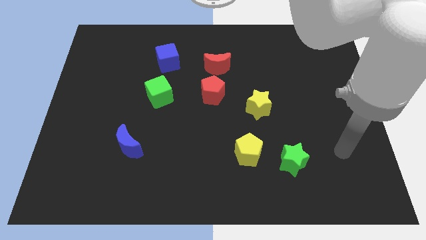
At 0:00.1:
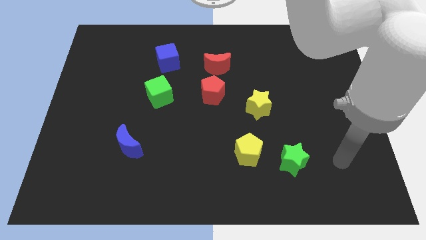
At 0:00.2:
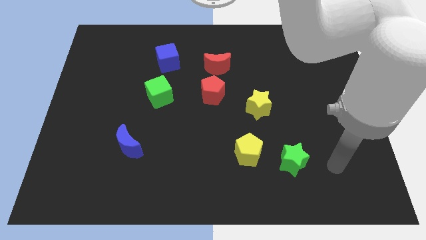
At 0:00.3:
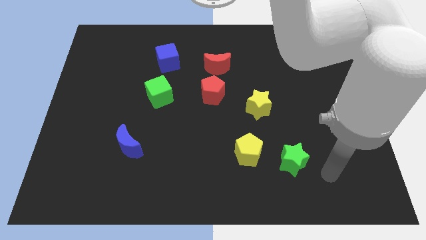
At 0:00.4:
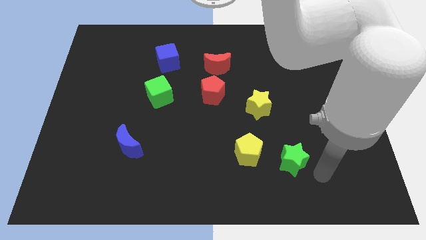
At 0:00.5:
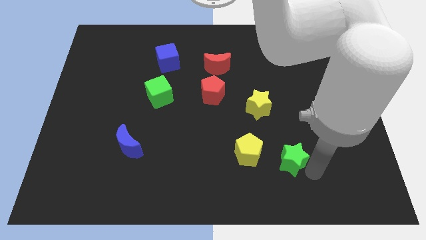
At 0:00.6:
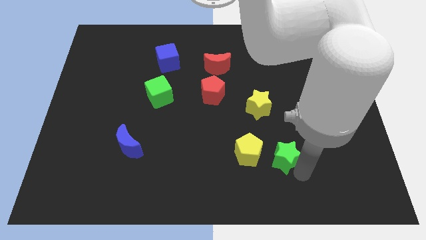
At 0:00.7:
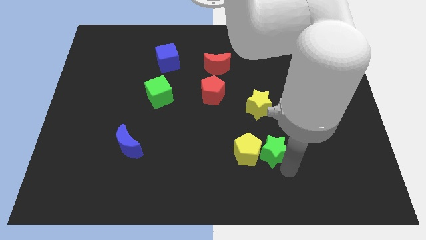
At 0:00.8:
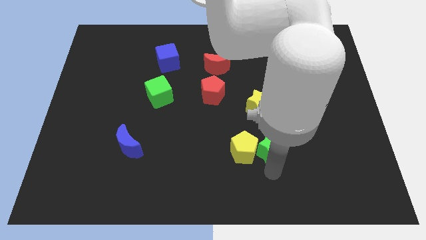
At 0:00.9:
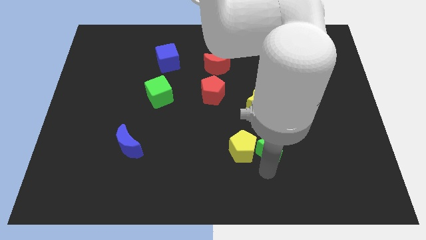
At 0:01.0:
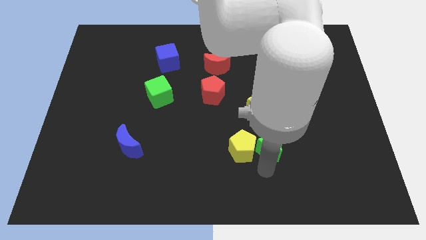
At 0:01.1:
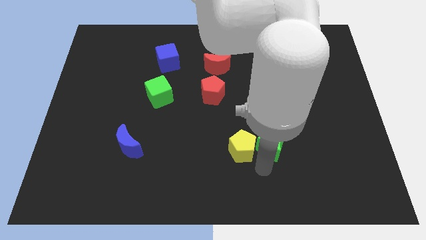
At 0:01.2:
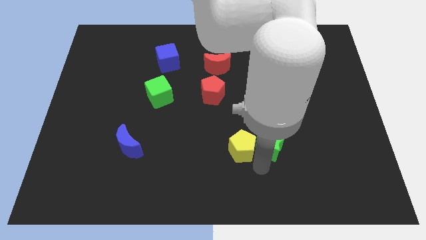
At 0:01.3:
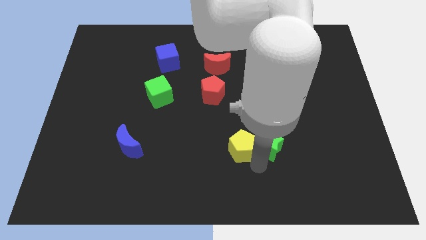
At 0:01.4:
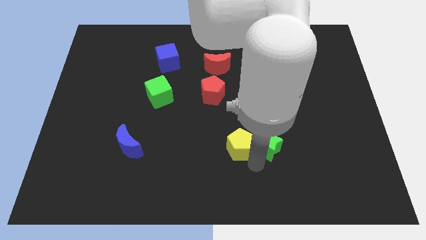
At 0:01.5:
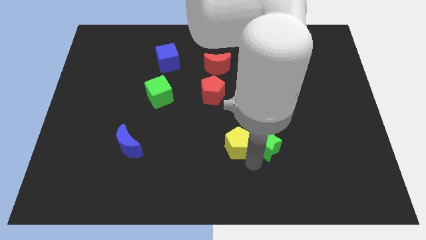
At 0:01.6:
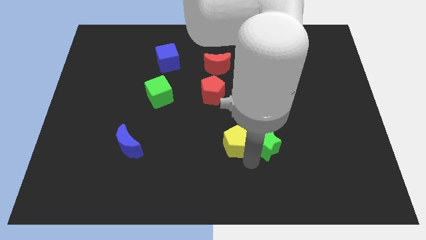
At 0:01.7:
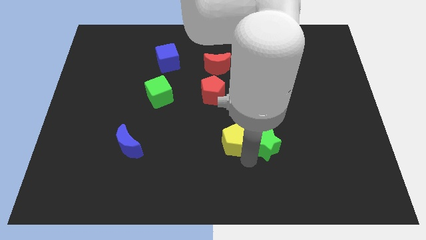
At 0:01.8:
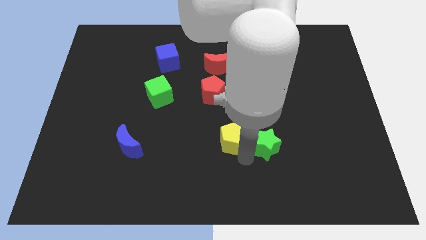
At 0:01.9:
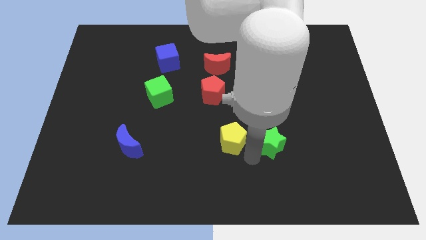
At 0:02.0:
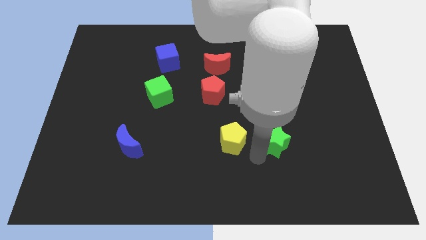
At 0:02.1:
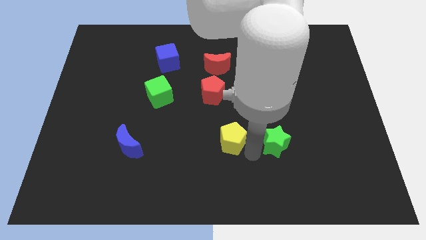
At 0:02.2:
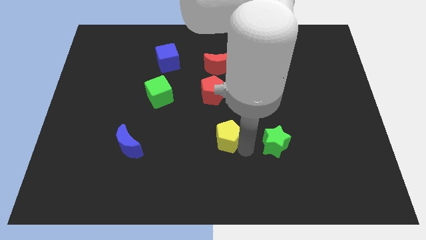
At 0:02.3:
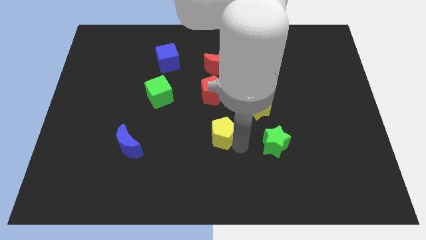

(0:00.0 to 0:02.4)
slightly slide the yellow pentagon diagonally up and left

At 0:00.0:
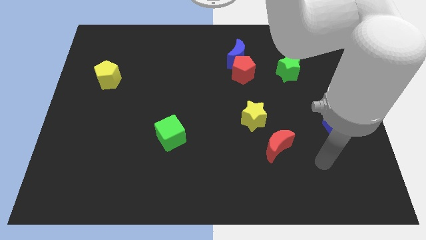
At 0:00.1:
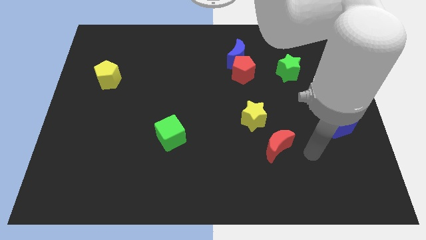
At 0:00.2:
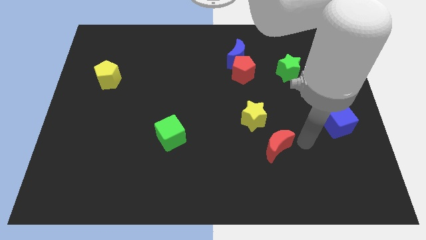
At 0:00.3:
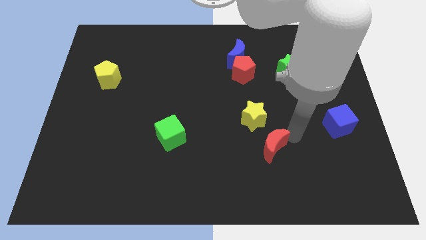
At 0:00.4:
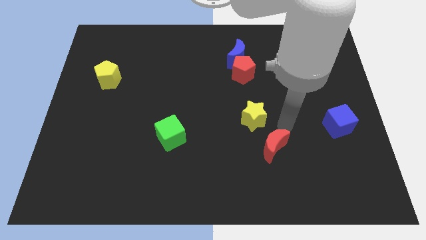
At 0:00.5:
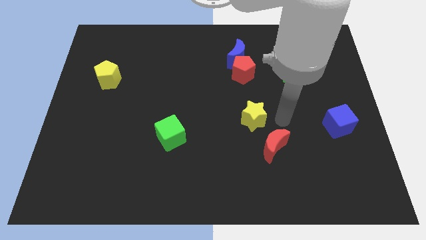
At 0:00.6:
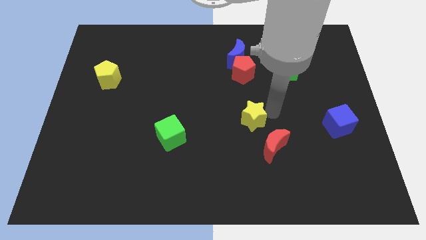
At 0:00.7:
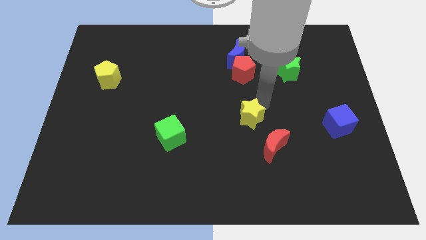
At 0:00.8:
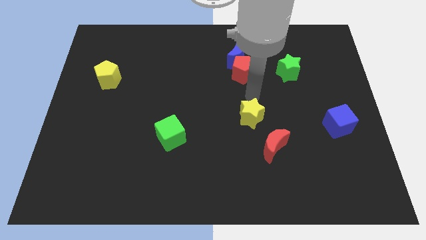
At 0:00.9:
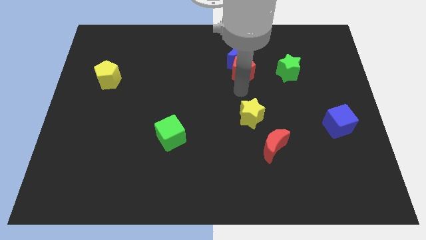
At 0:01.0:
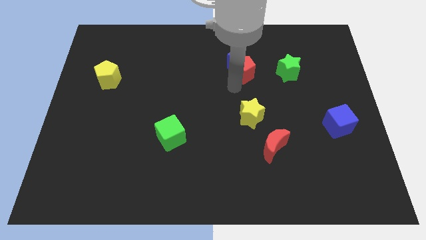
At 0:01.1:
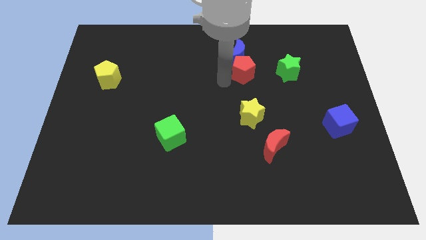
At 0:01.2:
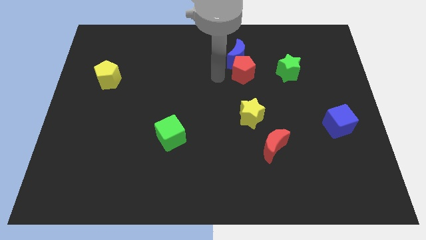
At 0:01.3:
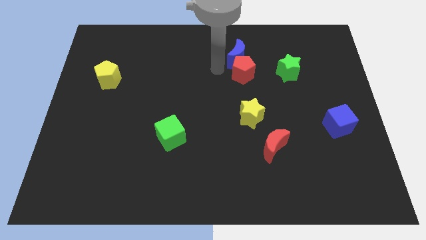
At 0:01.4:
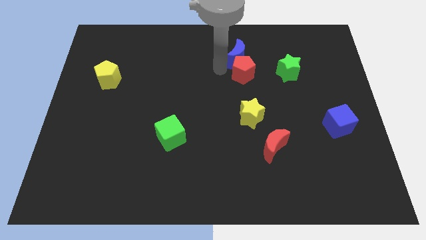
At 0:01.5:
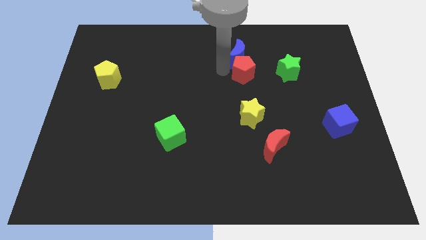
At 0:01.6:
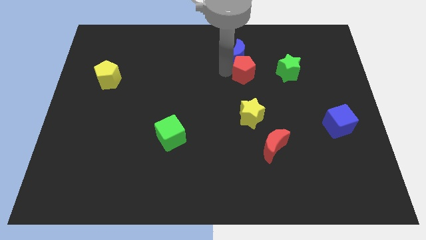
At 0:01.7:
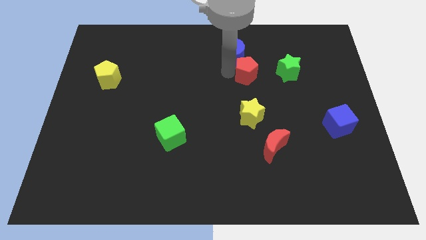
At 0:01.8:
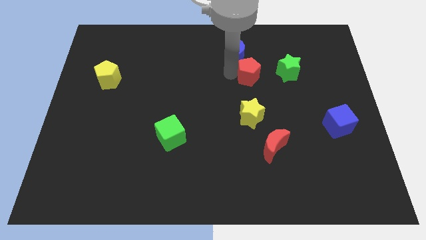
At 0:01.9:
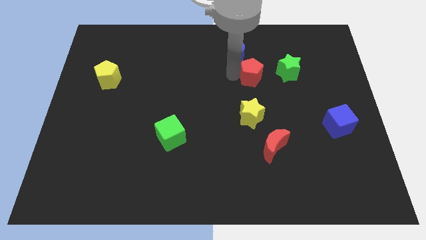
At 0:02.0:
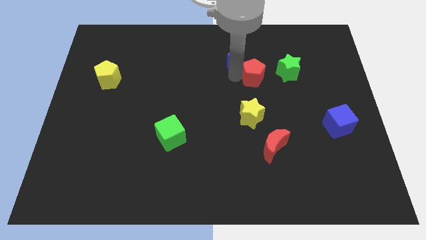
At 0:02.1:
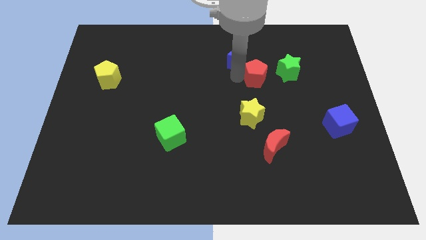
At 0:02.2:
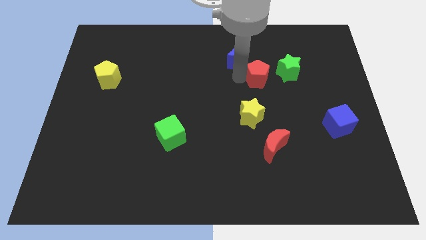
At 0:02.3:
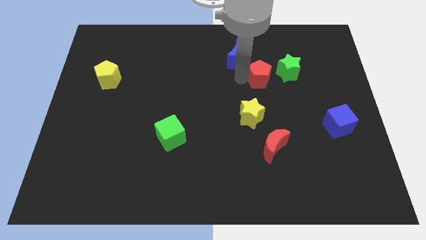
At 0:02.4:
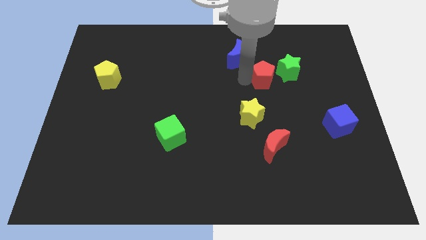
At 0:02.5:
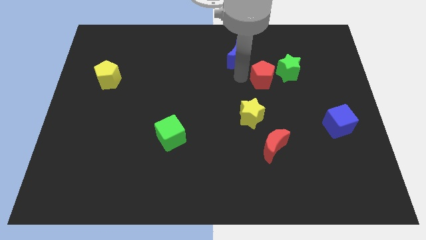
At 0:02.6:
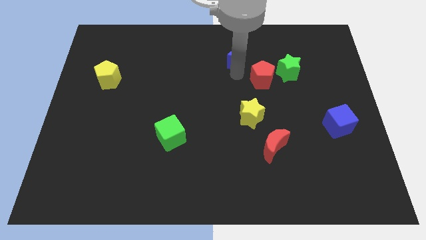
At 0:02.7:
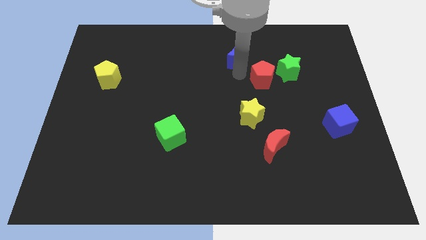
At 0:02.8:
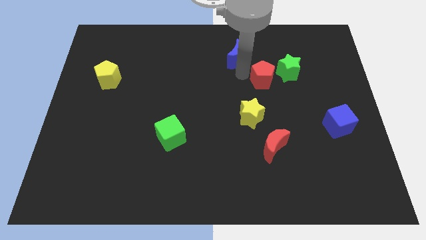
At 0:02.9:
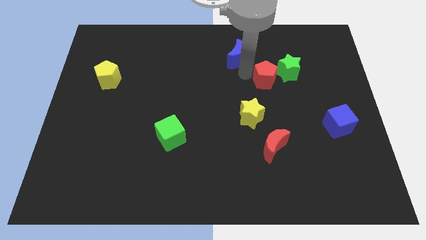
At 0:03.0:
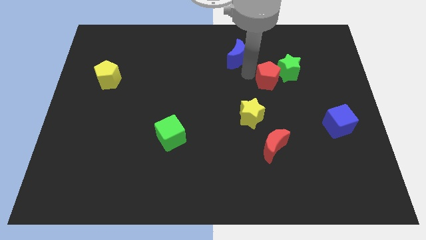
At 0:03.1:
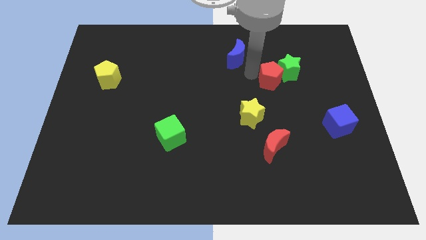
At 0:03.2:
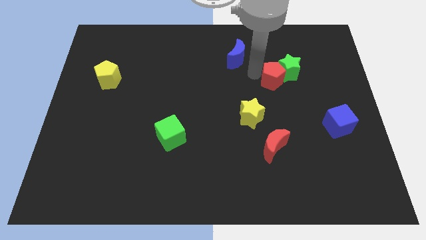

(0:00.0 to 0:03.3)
push the red pentagon to the right a little

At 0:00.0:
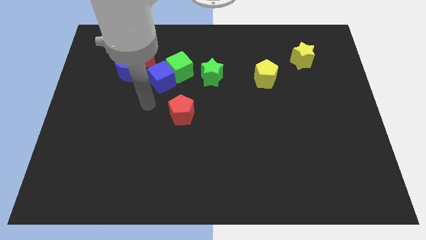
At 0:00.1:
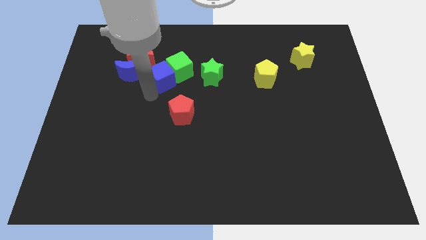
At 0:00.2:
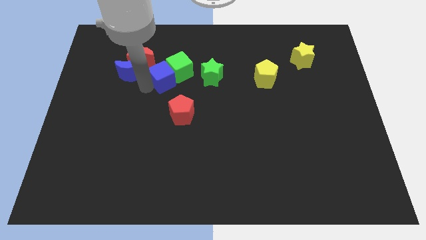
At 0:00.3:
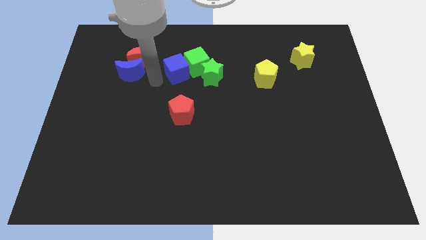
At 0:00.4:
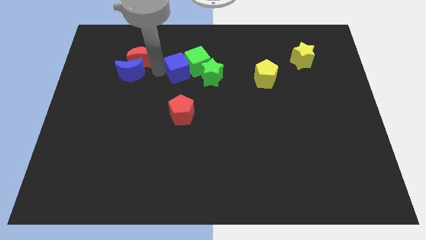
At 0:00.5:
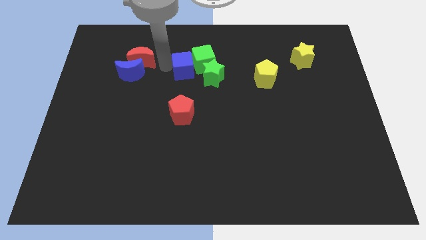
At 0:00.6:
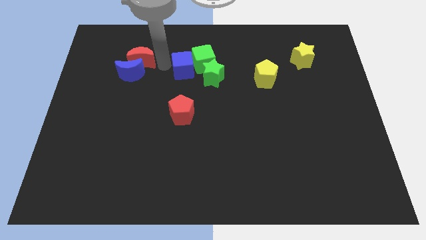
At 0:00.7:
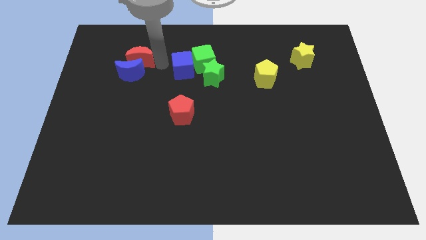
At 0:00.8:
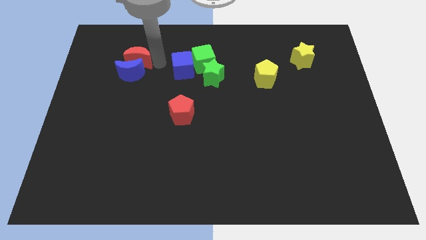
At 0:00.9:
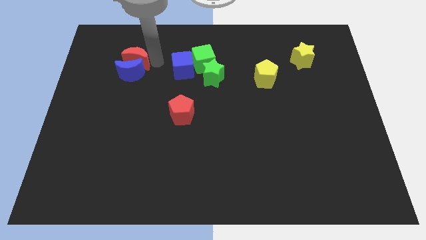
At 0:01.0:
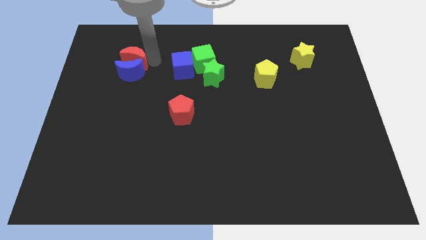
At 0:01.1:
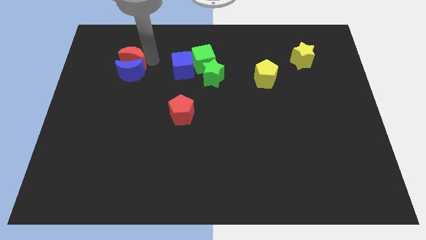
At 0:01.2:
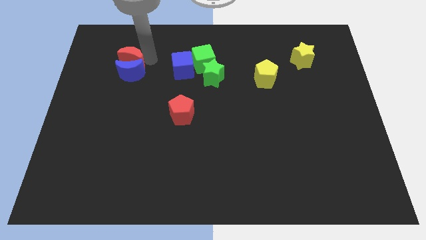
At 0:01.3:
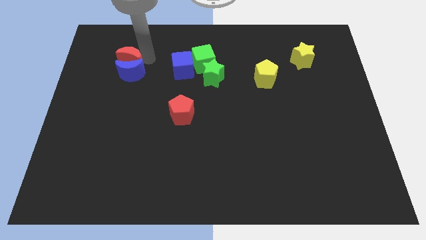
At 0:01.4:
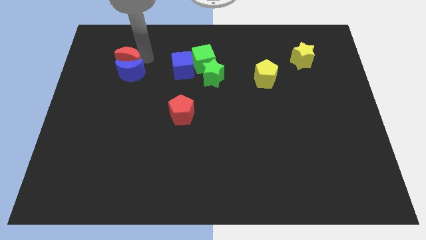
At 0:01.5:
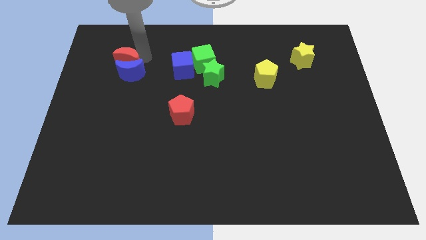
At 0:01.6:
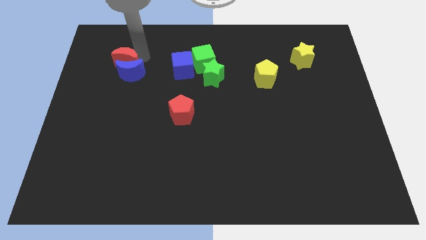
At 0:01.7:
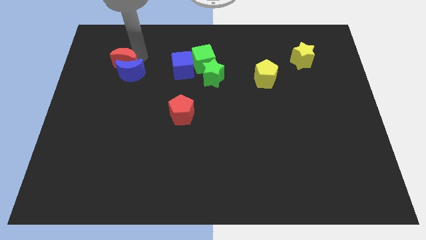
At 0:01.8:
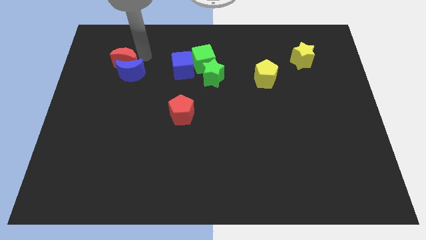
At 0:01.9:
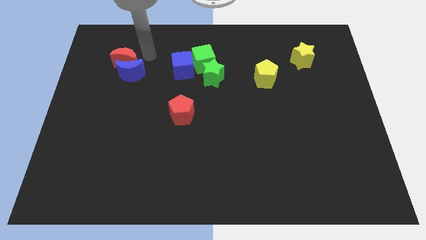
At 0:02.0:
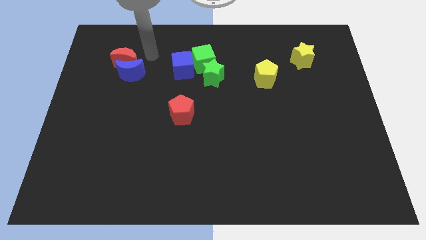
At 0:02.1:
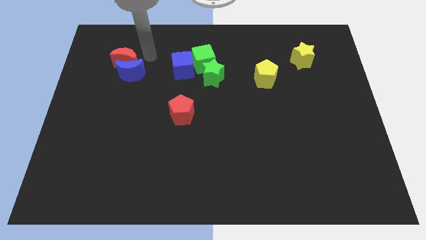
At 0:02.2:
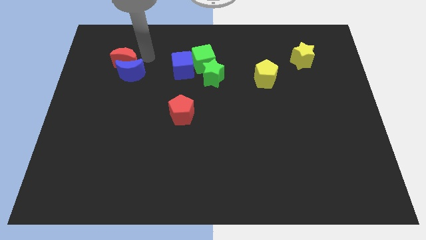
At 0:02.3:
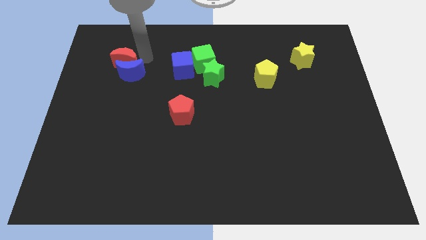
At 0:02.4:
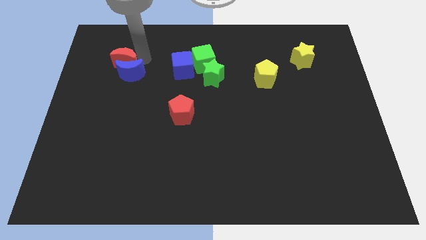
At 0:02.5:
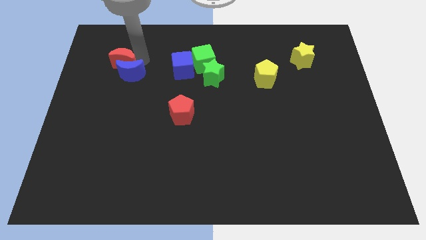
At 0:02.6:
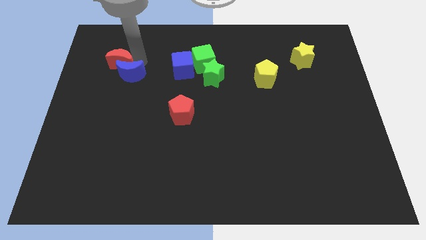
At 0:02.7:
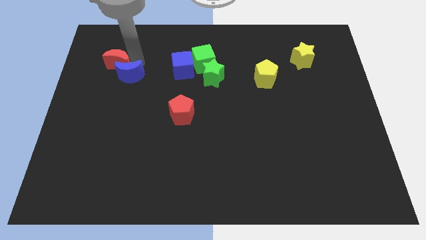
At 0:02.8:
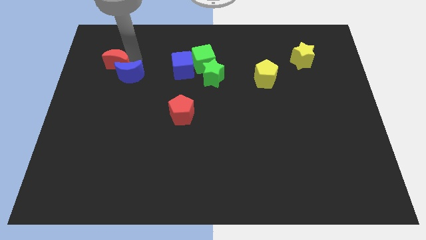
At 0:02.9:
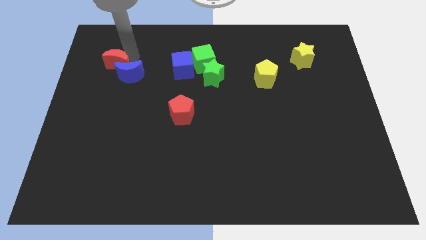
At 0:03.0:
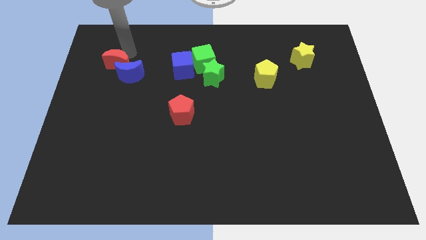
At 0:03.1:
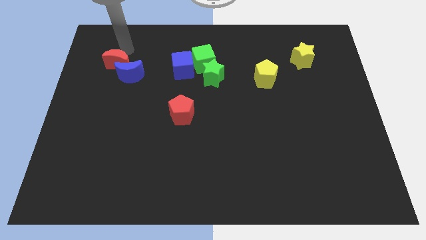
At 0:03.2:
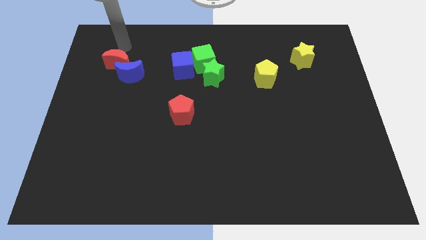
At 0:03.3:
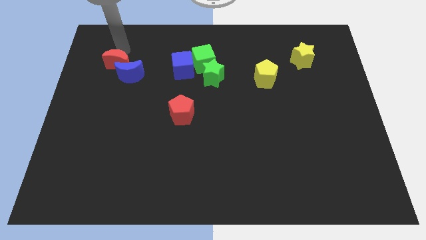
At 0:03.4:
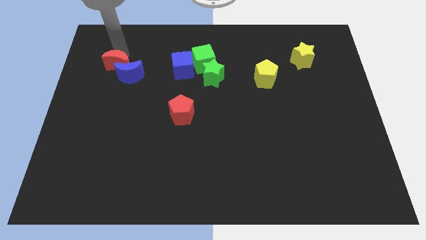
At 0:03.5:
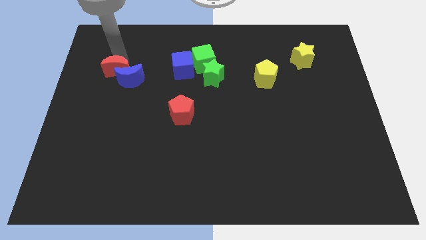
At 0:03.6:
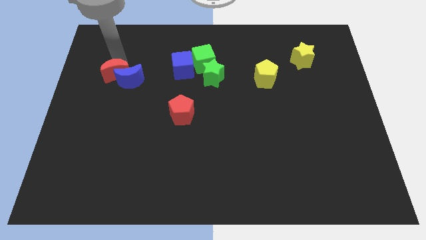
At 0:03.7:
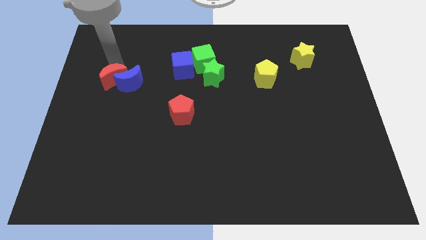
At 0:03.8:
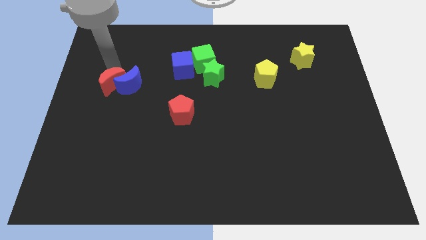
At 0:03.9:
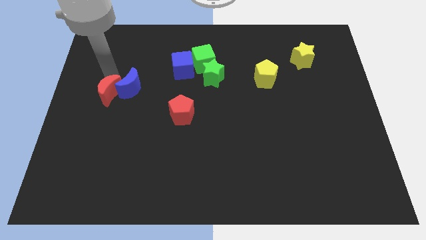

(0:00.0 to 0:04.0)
push the red moon a little down
